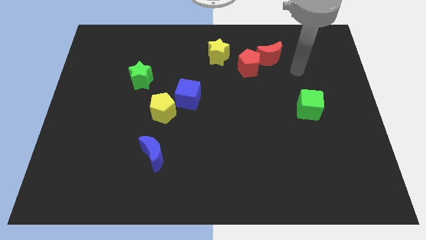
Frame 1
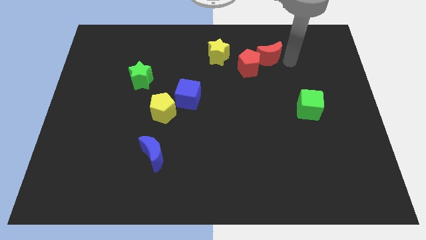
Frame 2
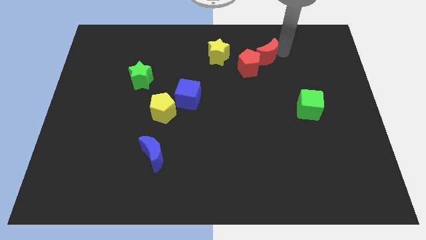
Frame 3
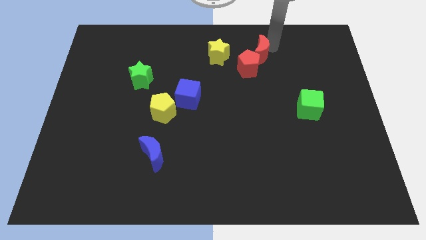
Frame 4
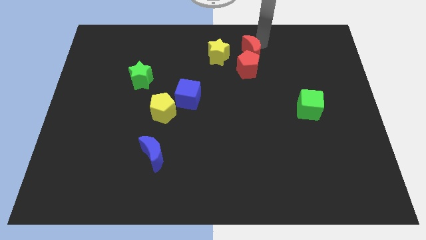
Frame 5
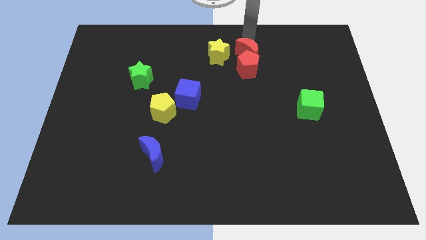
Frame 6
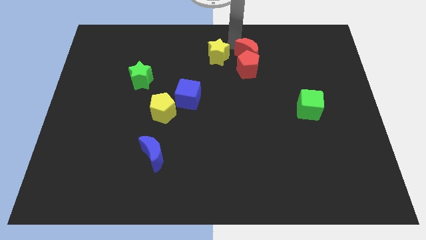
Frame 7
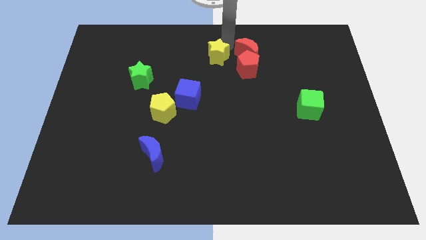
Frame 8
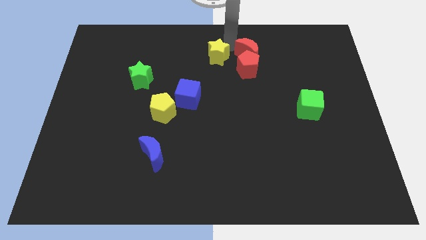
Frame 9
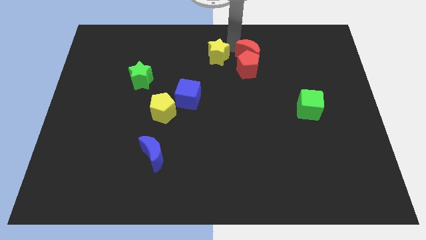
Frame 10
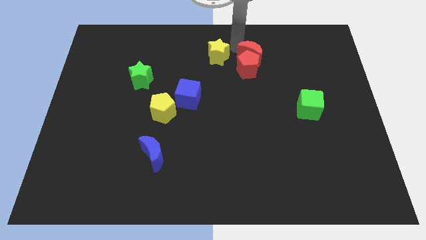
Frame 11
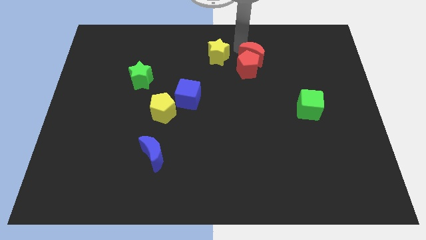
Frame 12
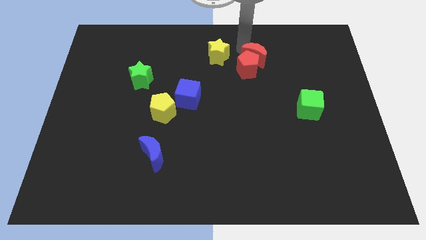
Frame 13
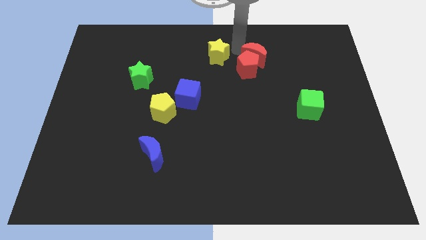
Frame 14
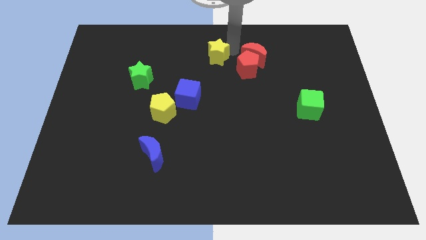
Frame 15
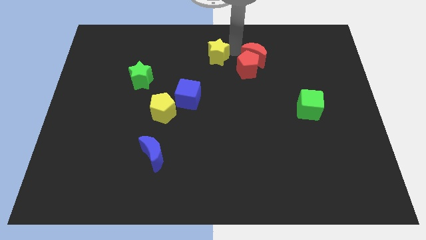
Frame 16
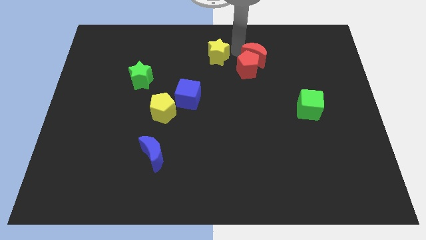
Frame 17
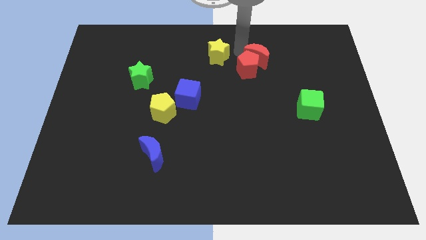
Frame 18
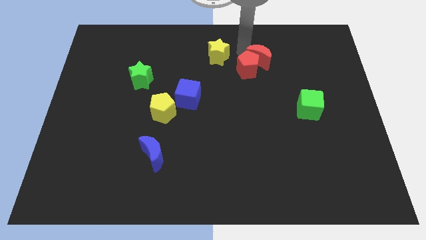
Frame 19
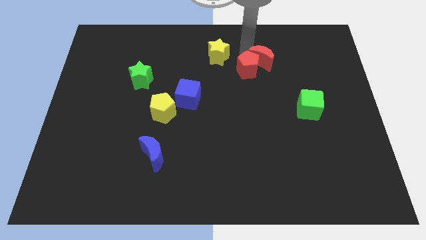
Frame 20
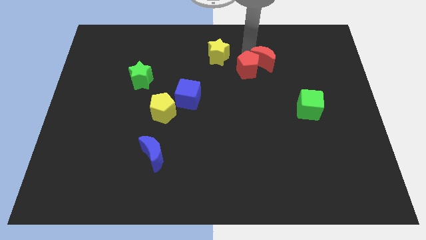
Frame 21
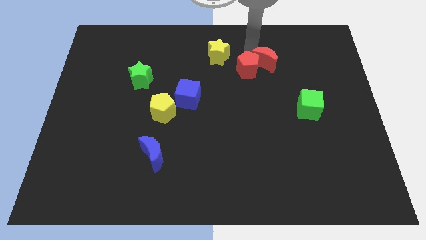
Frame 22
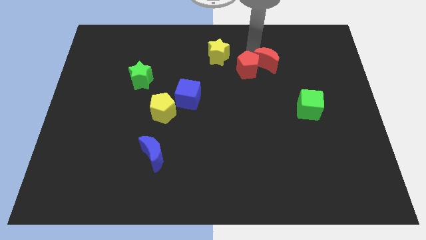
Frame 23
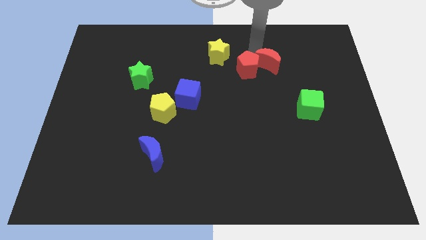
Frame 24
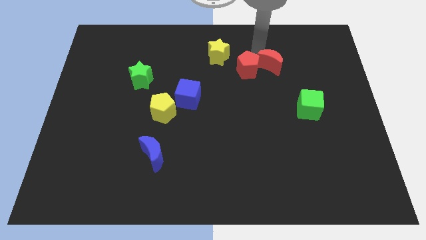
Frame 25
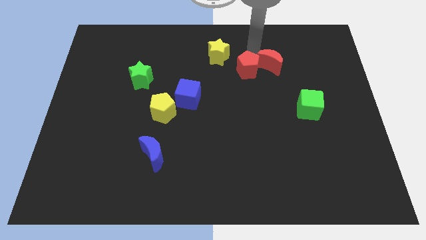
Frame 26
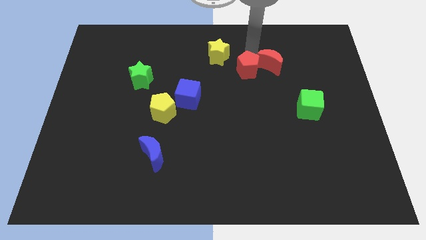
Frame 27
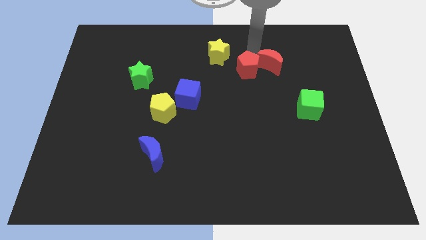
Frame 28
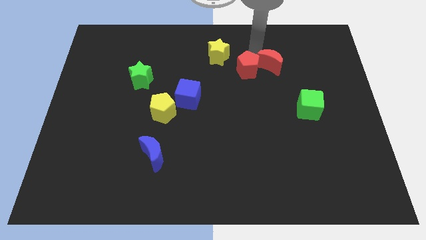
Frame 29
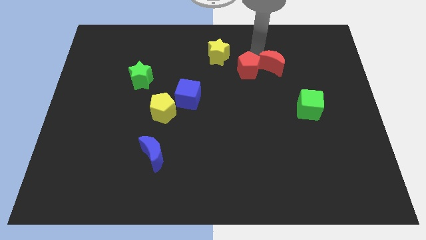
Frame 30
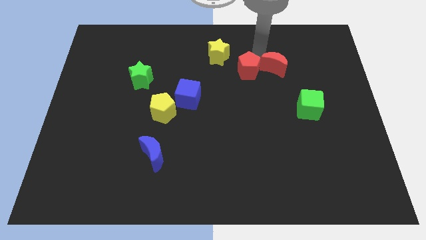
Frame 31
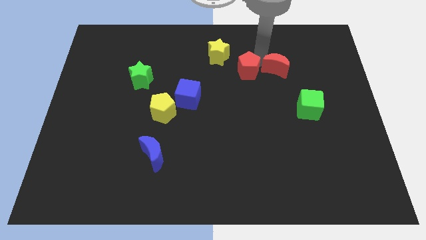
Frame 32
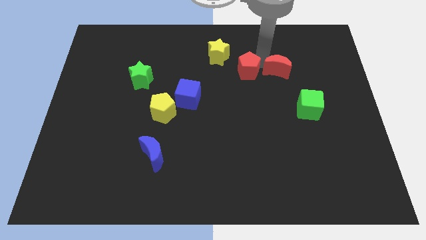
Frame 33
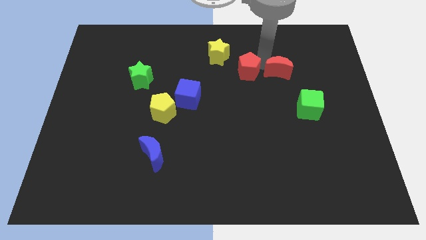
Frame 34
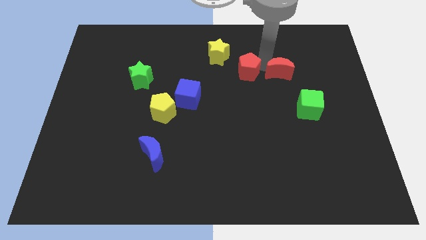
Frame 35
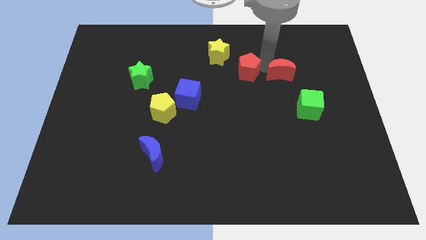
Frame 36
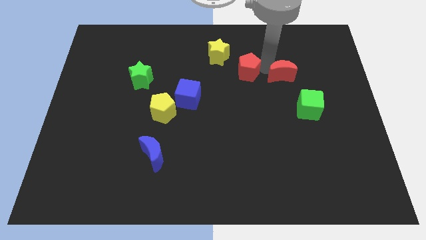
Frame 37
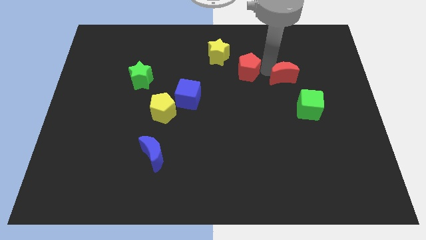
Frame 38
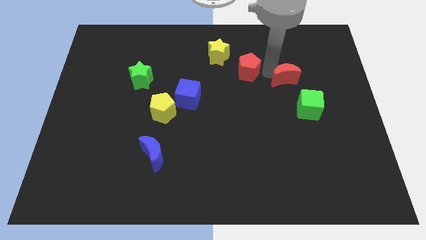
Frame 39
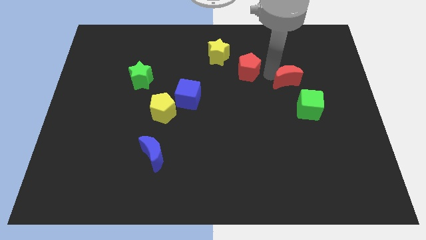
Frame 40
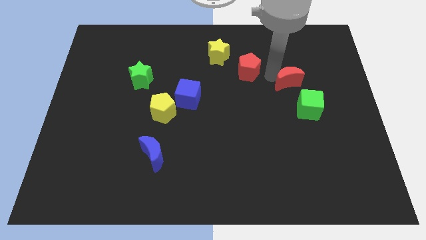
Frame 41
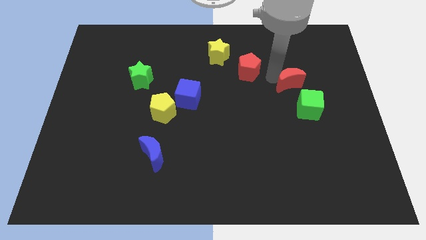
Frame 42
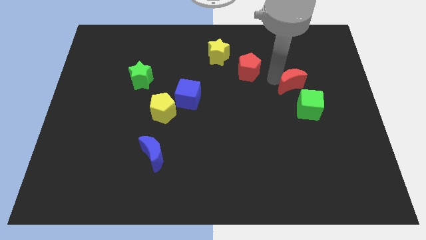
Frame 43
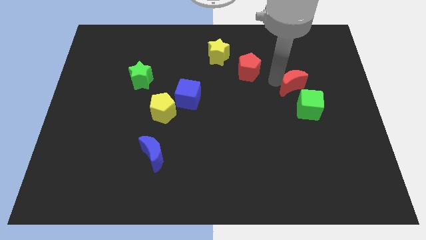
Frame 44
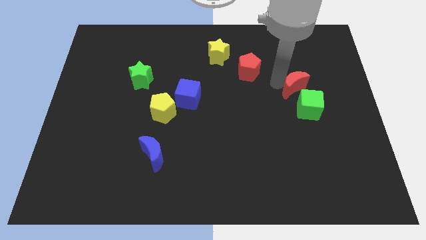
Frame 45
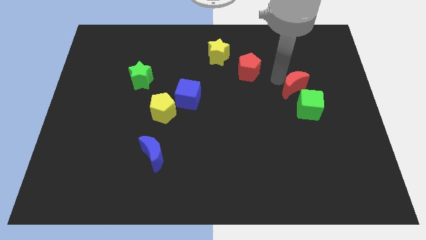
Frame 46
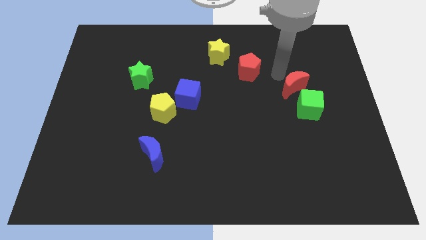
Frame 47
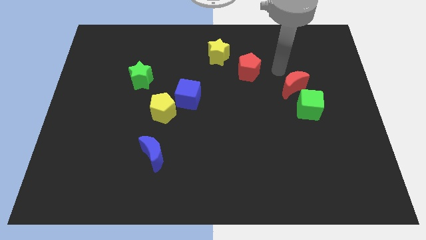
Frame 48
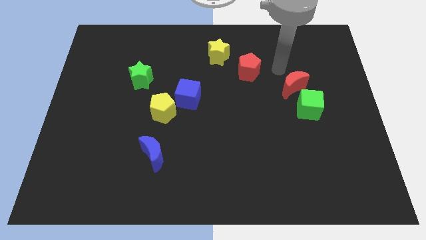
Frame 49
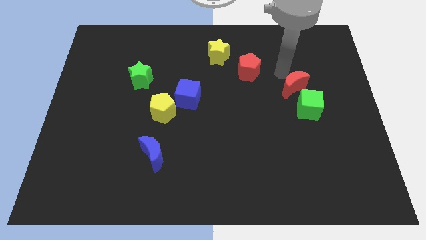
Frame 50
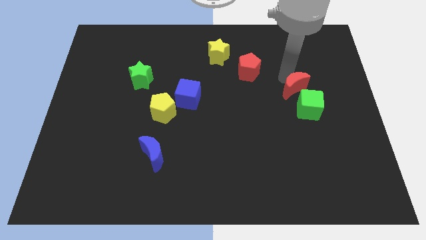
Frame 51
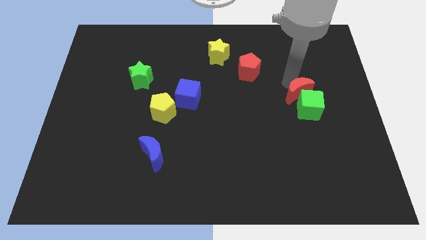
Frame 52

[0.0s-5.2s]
slide the red moon to the green cube

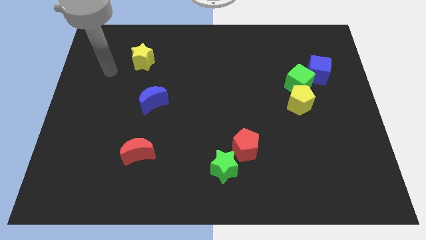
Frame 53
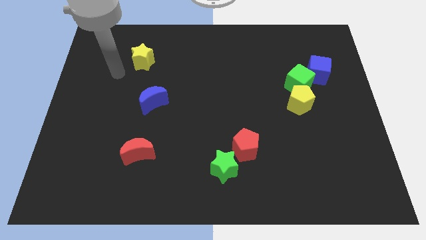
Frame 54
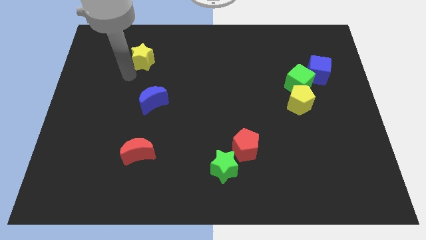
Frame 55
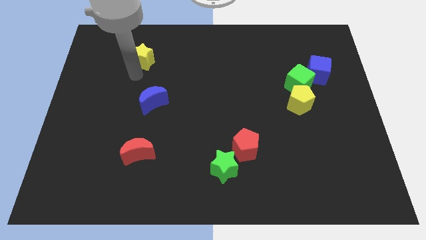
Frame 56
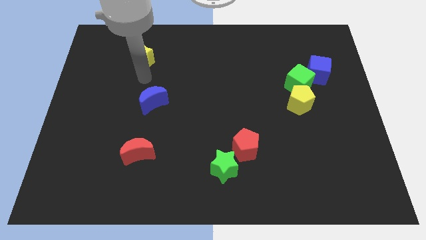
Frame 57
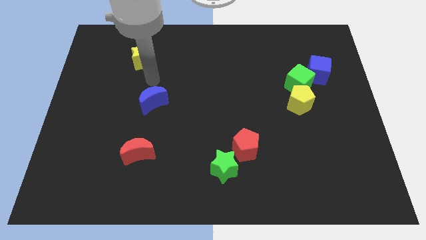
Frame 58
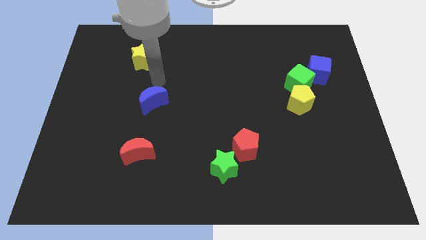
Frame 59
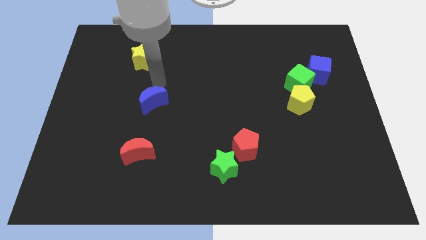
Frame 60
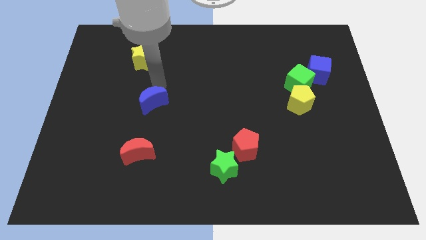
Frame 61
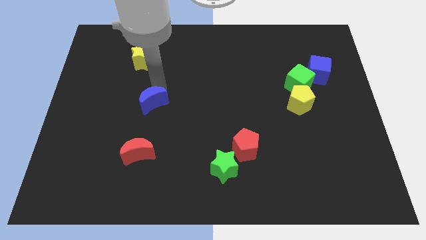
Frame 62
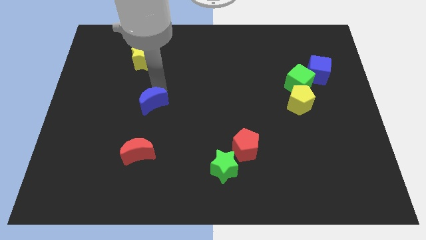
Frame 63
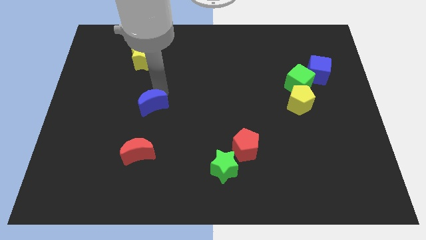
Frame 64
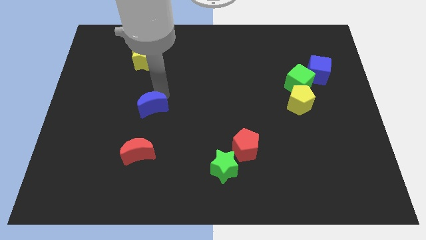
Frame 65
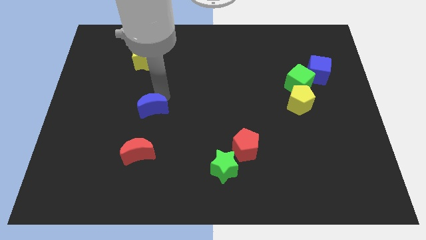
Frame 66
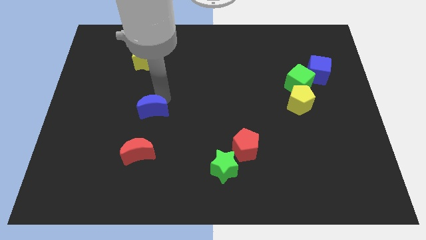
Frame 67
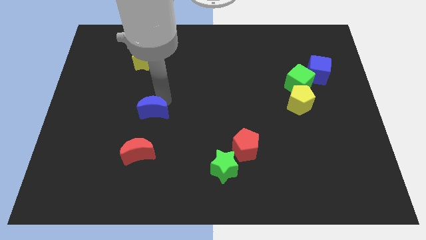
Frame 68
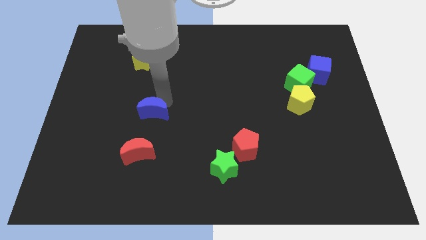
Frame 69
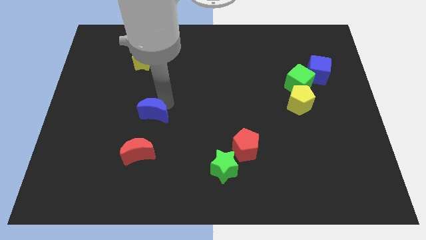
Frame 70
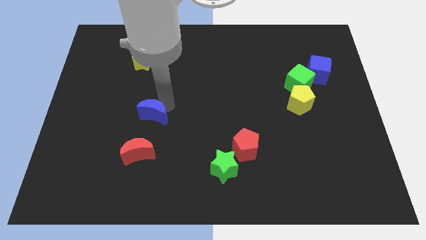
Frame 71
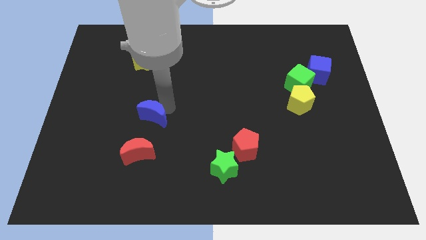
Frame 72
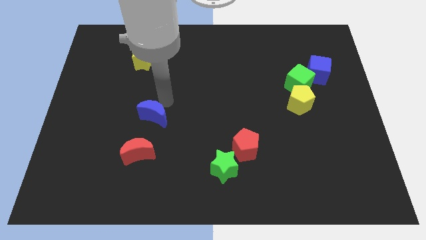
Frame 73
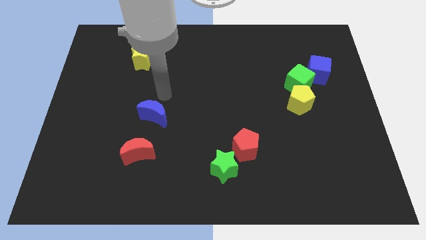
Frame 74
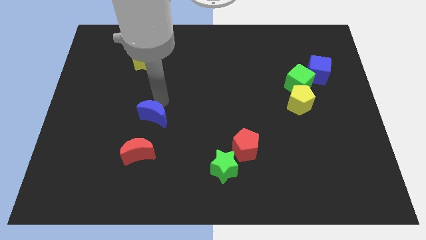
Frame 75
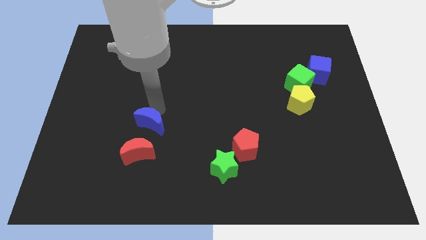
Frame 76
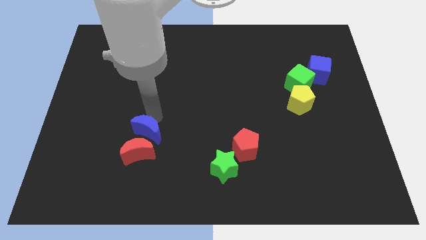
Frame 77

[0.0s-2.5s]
slide the blue moon to the red moon

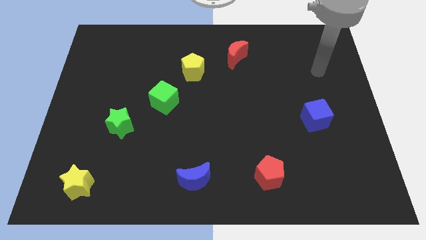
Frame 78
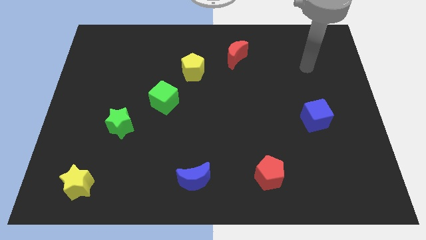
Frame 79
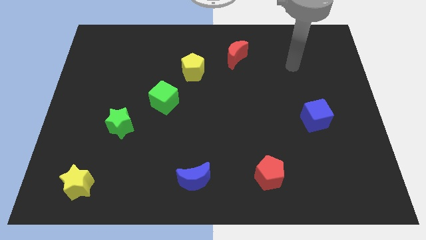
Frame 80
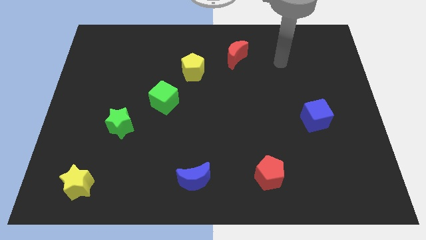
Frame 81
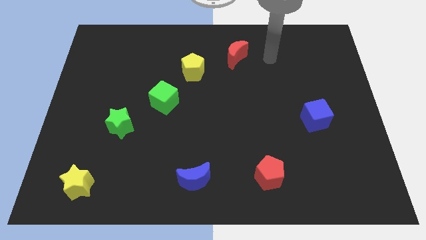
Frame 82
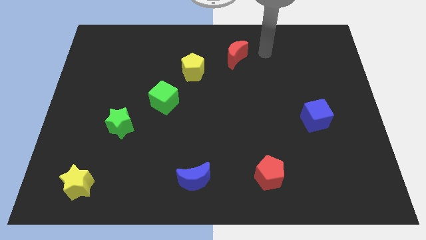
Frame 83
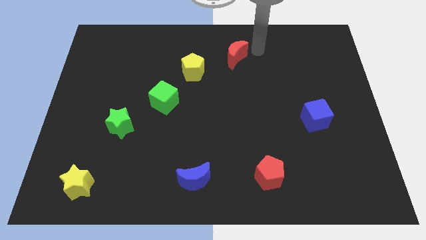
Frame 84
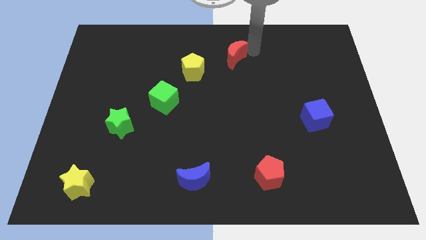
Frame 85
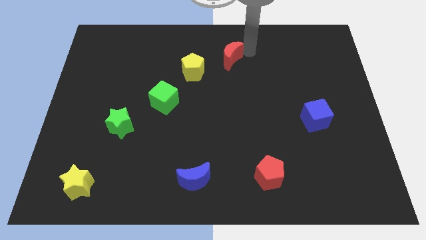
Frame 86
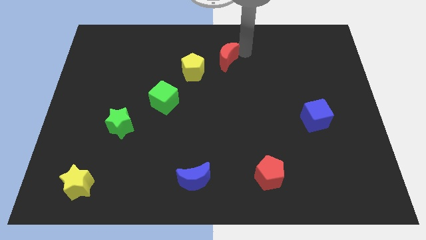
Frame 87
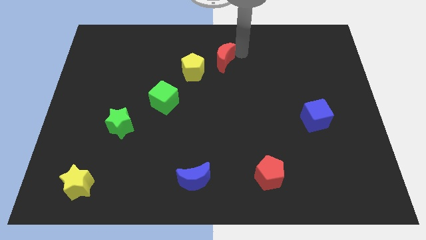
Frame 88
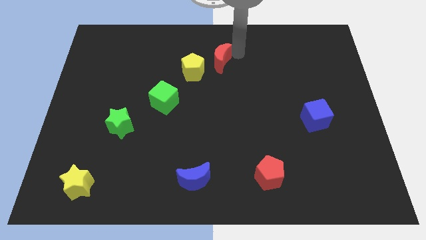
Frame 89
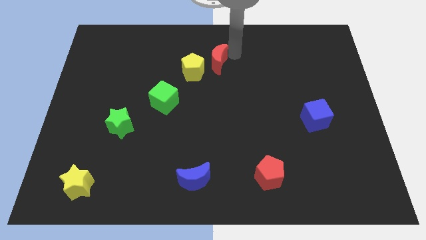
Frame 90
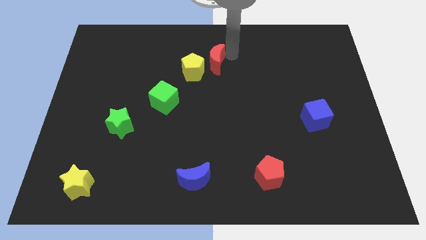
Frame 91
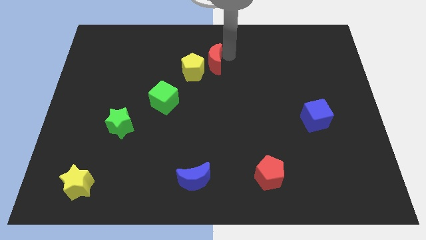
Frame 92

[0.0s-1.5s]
push the red moon to the yellow pentagon
